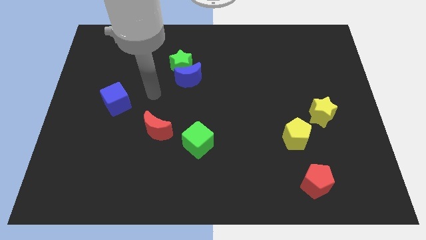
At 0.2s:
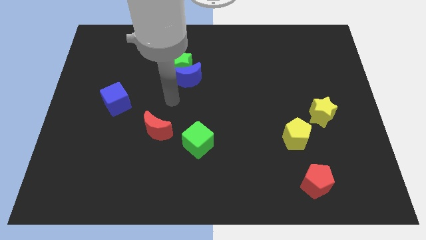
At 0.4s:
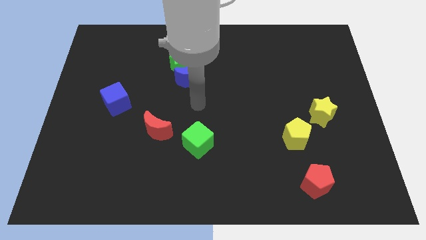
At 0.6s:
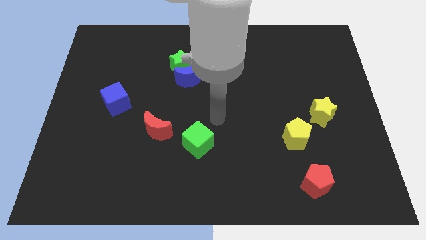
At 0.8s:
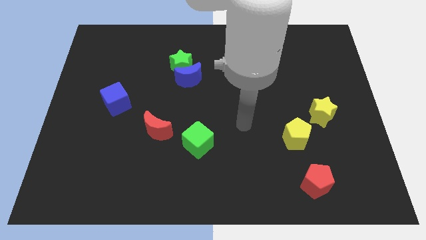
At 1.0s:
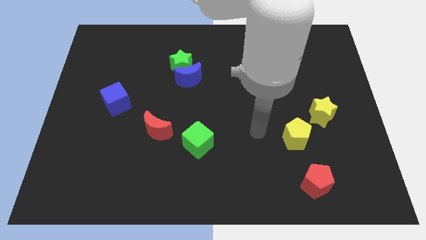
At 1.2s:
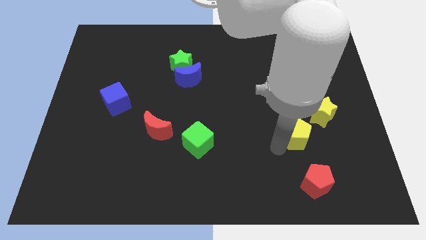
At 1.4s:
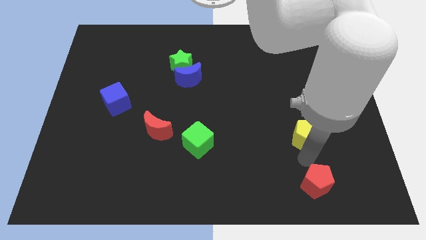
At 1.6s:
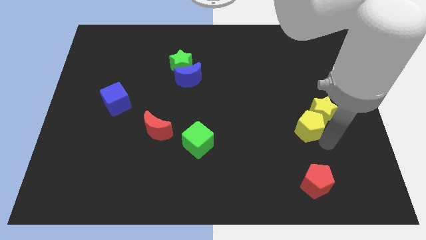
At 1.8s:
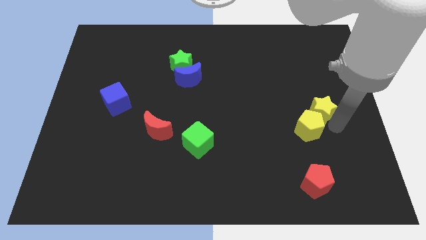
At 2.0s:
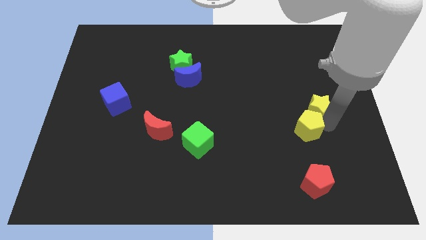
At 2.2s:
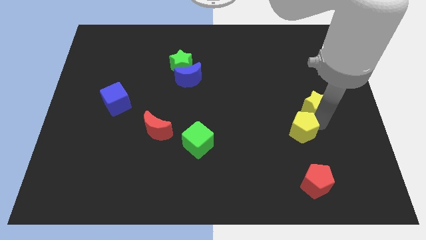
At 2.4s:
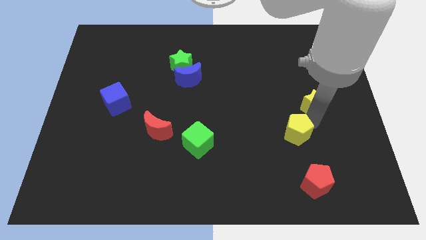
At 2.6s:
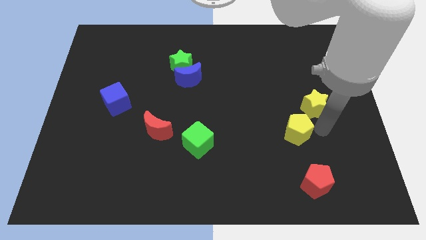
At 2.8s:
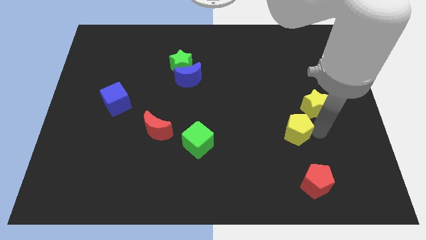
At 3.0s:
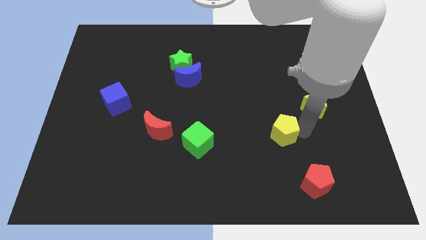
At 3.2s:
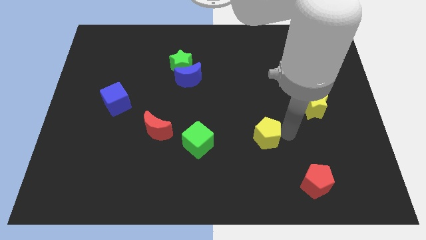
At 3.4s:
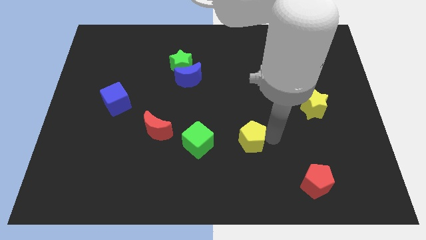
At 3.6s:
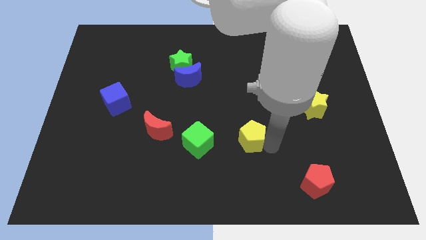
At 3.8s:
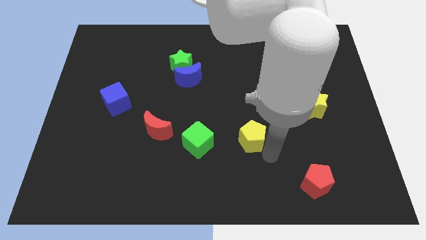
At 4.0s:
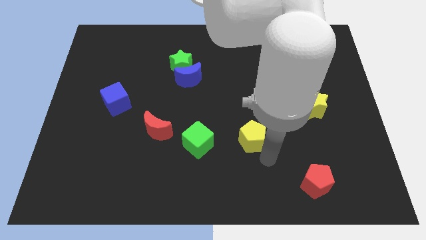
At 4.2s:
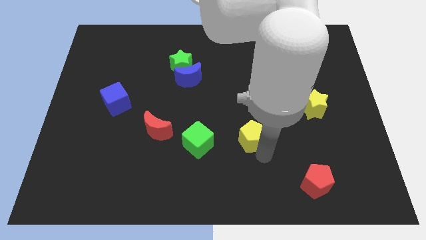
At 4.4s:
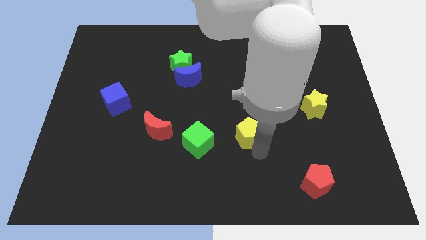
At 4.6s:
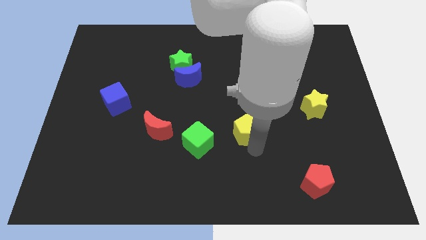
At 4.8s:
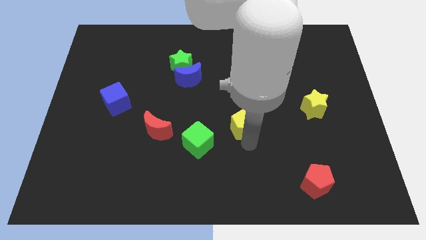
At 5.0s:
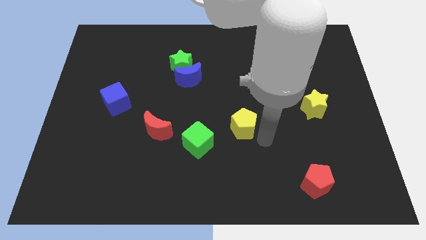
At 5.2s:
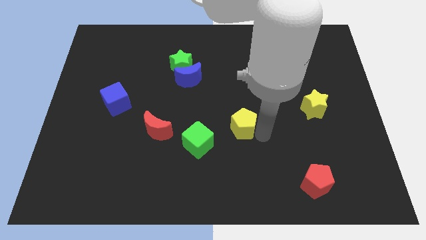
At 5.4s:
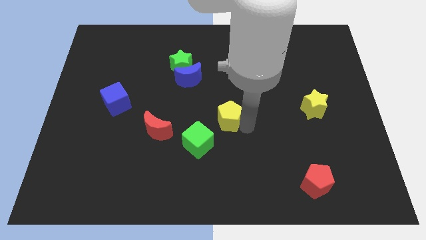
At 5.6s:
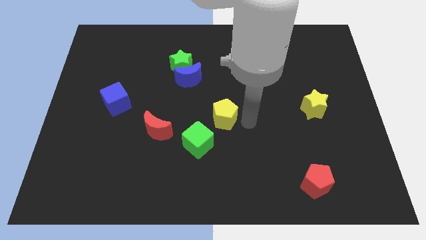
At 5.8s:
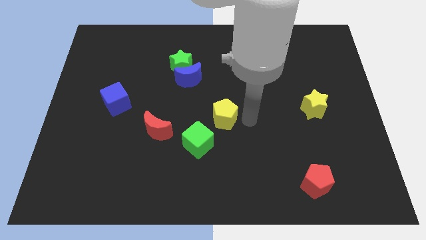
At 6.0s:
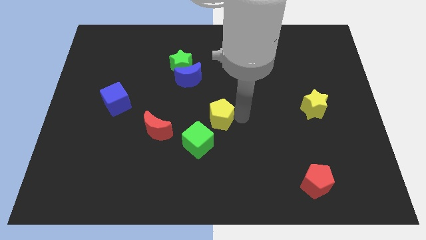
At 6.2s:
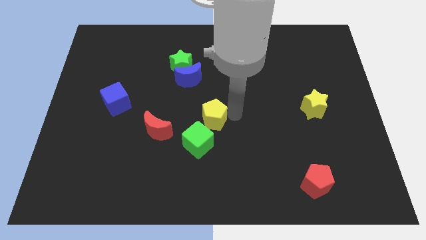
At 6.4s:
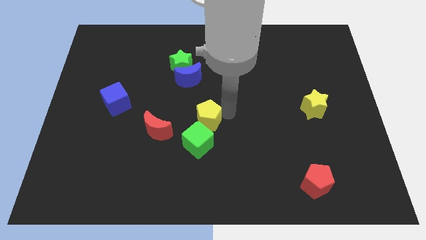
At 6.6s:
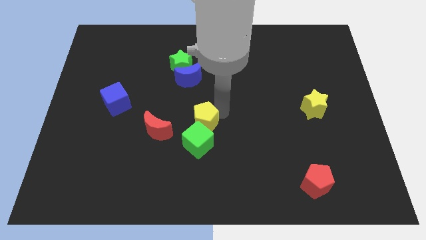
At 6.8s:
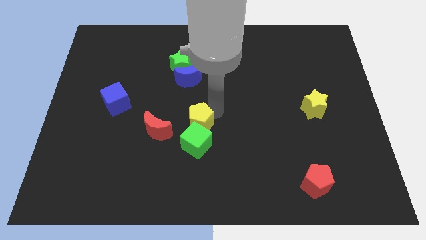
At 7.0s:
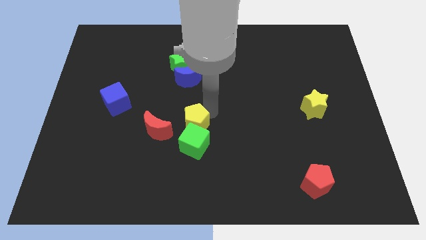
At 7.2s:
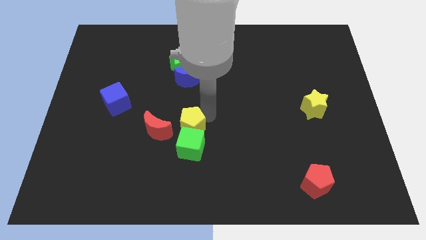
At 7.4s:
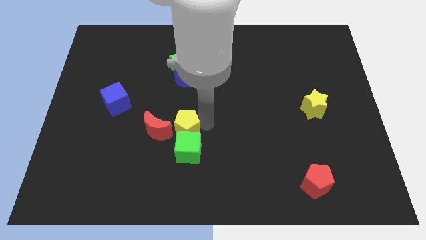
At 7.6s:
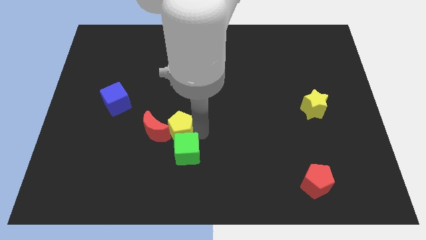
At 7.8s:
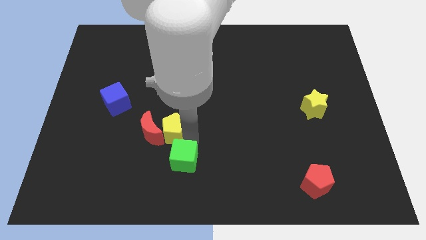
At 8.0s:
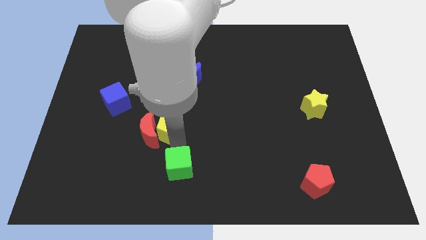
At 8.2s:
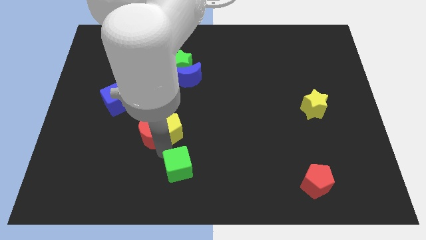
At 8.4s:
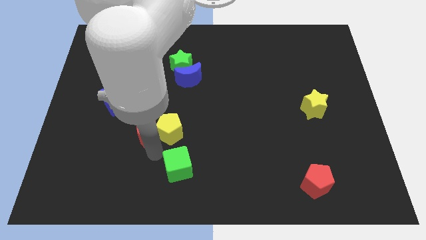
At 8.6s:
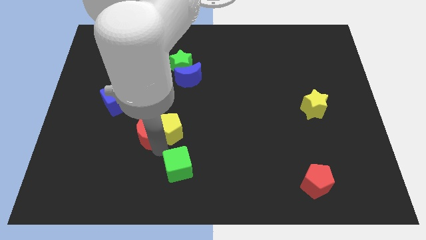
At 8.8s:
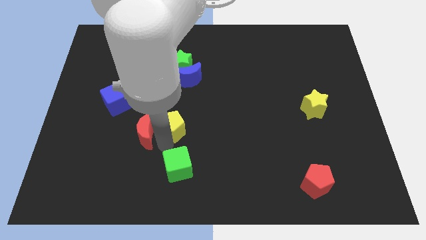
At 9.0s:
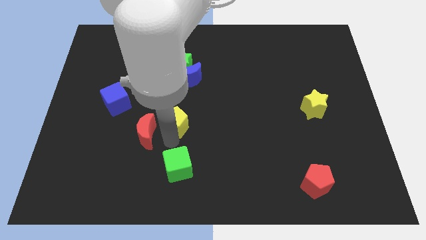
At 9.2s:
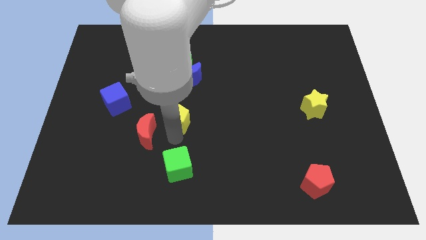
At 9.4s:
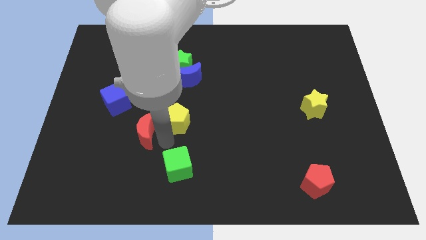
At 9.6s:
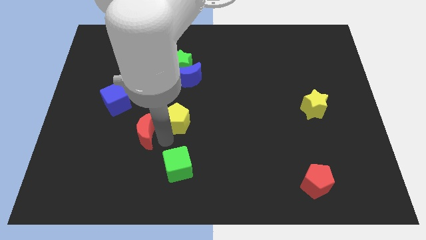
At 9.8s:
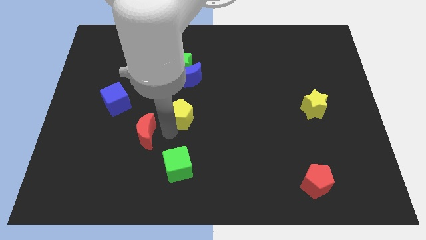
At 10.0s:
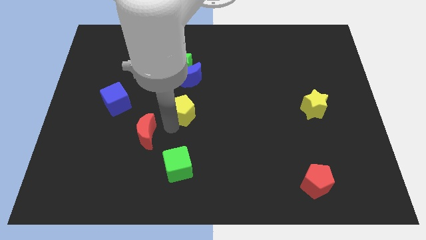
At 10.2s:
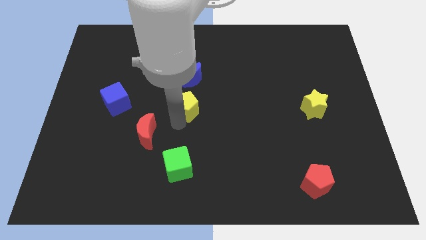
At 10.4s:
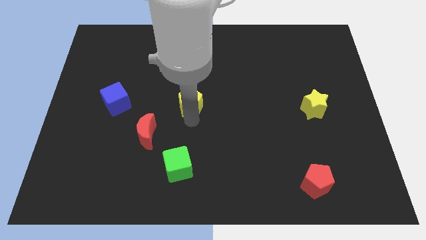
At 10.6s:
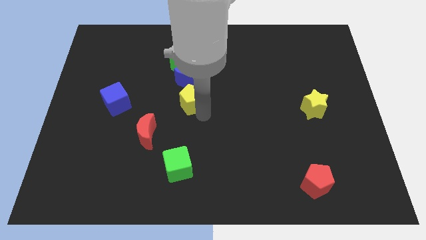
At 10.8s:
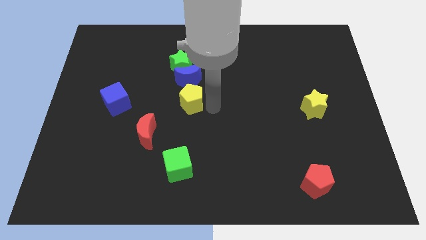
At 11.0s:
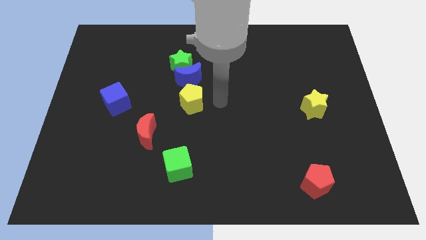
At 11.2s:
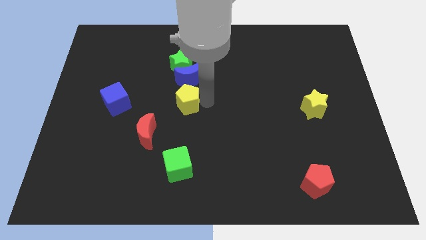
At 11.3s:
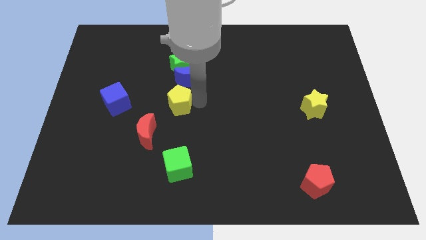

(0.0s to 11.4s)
put the yellow pentagon just right of the blue cube
